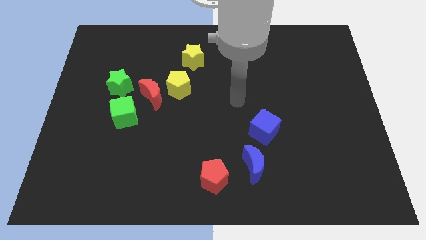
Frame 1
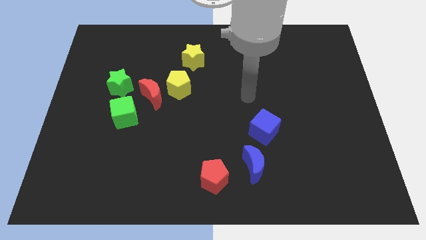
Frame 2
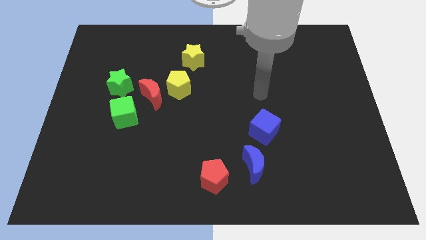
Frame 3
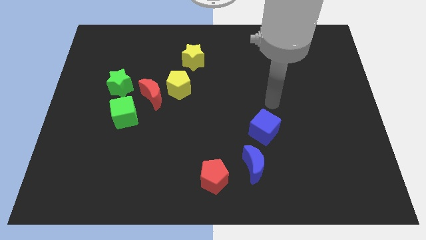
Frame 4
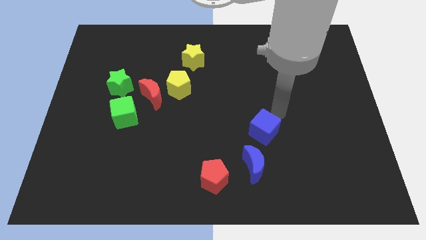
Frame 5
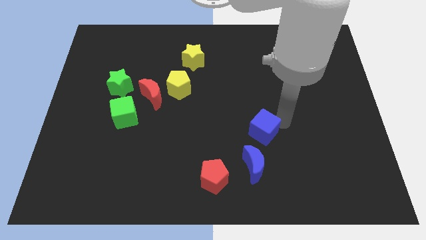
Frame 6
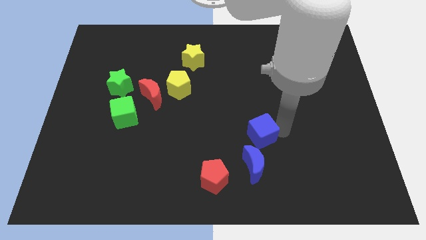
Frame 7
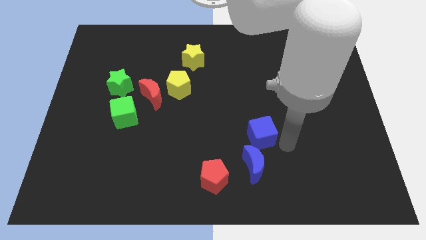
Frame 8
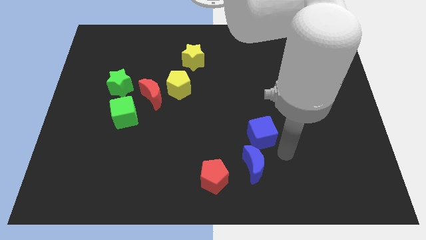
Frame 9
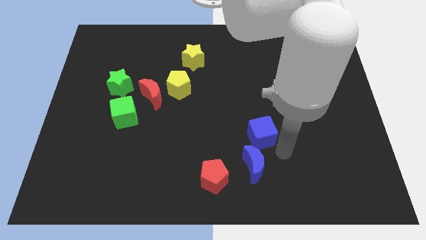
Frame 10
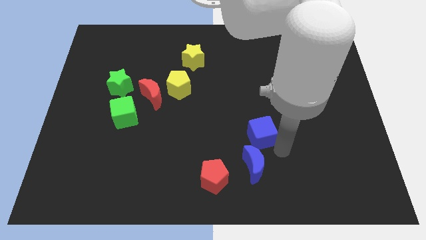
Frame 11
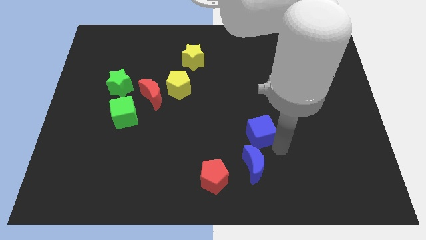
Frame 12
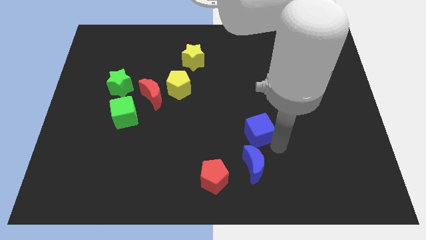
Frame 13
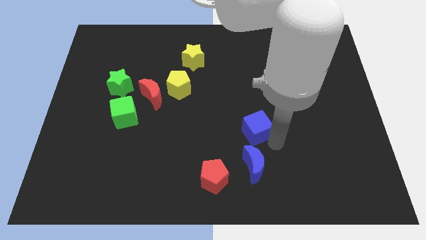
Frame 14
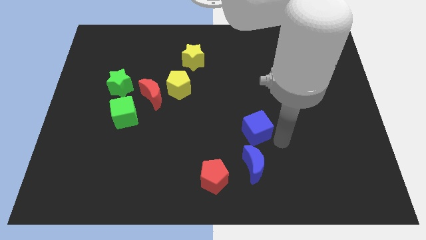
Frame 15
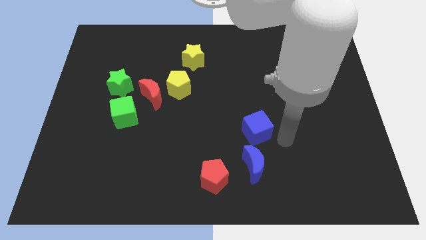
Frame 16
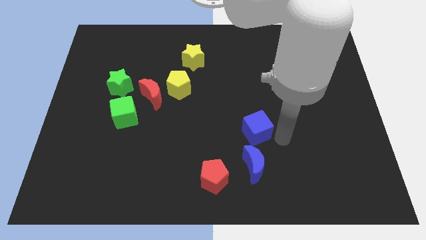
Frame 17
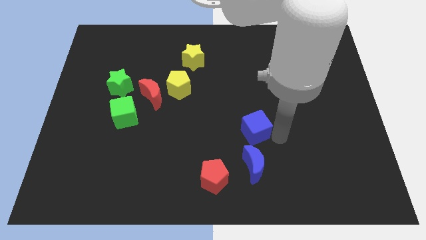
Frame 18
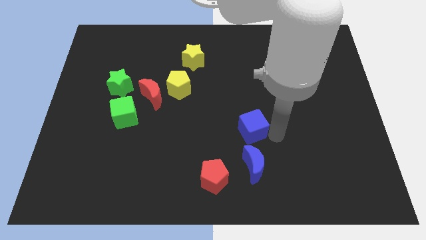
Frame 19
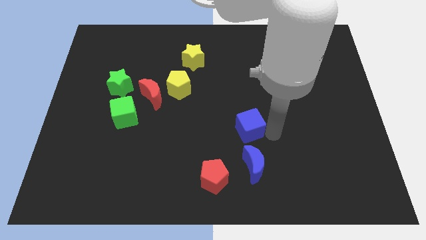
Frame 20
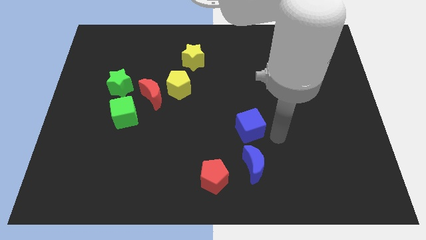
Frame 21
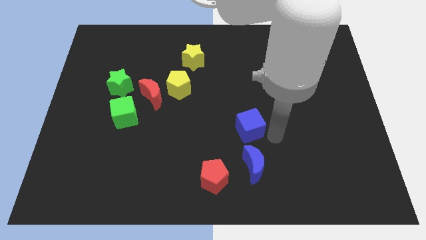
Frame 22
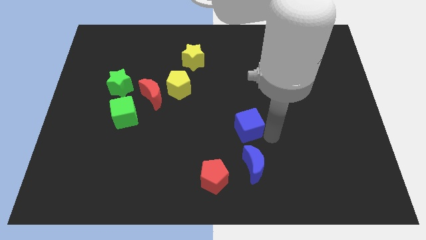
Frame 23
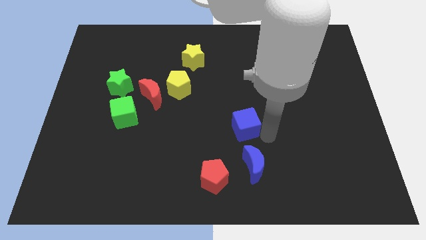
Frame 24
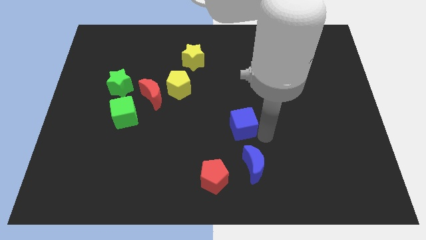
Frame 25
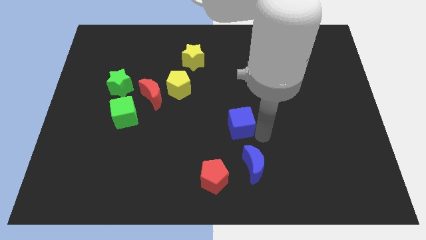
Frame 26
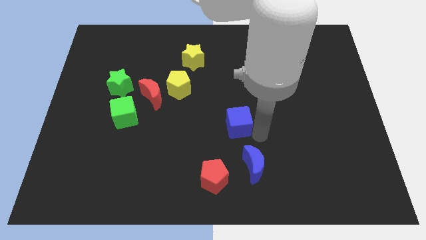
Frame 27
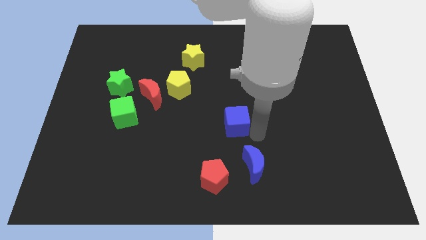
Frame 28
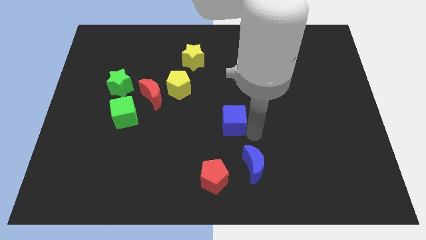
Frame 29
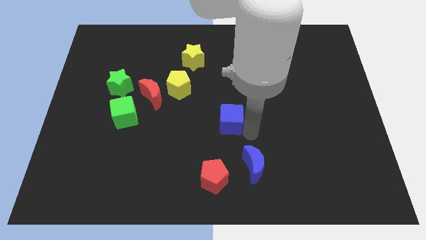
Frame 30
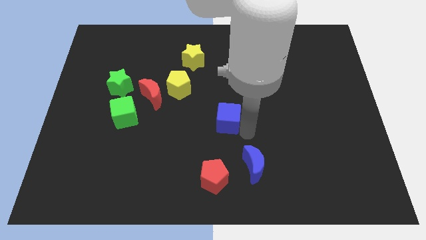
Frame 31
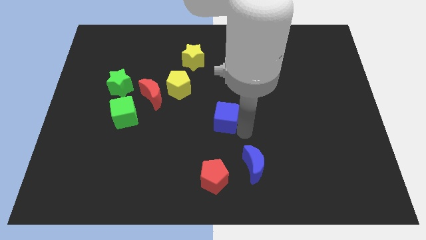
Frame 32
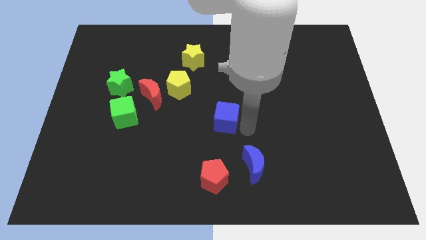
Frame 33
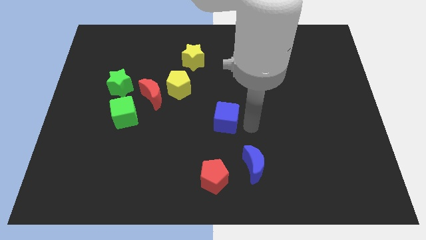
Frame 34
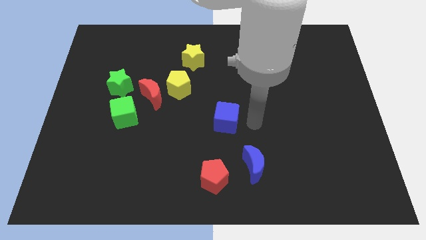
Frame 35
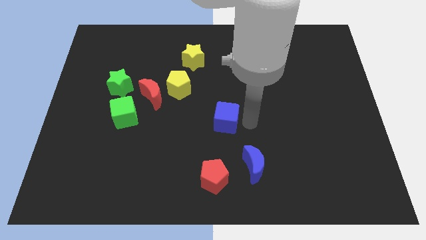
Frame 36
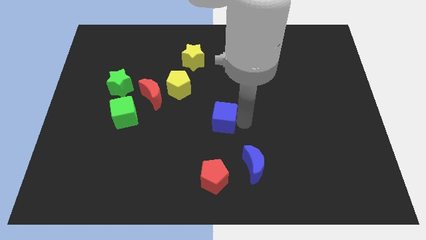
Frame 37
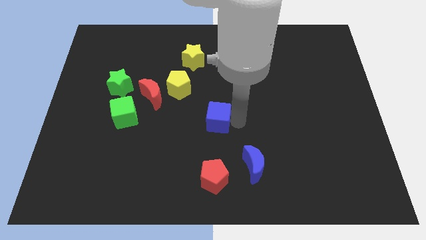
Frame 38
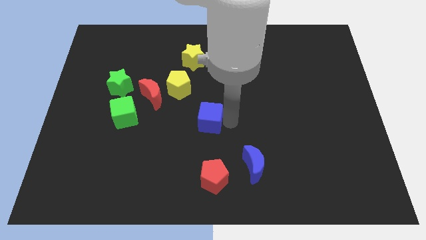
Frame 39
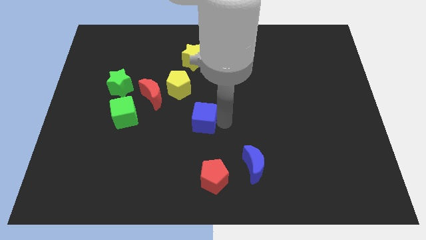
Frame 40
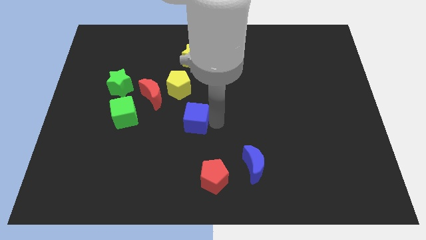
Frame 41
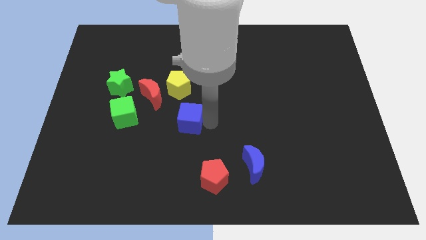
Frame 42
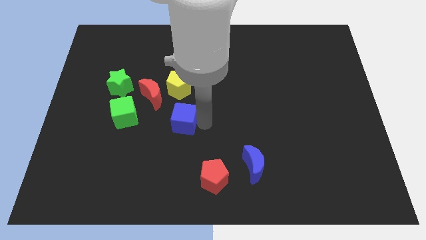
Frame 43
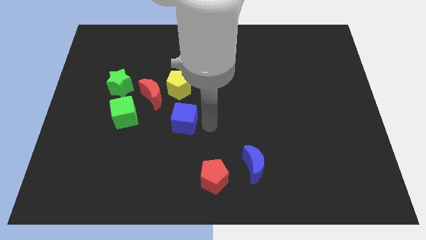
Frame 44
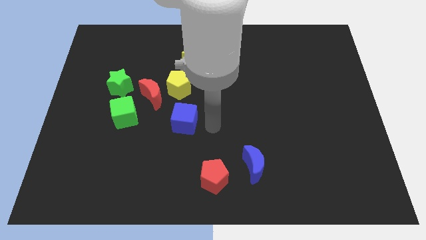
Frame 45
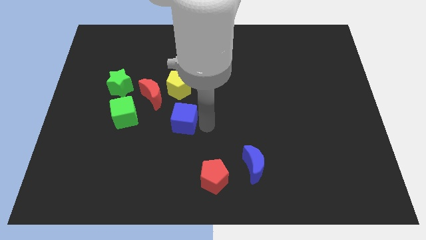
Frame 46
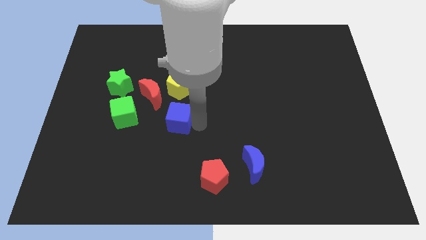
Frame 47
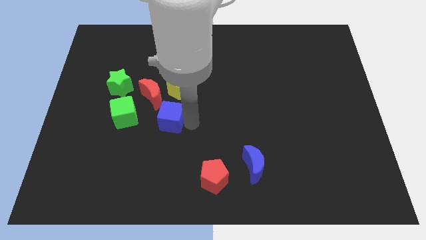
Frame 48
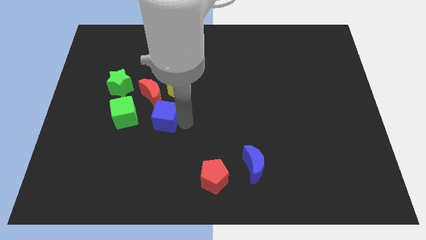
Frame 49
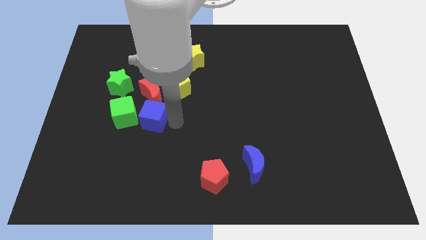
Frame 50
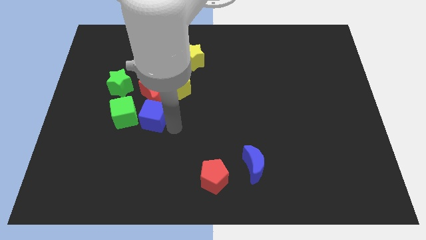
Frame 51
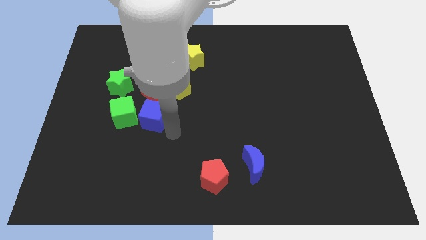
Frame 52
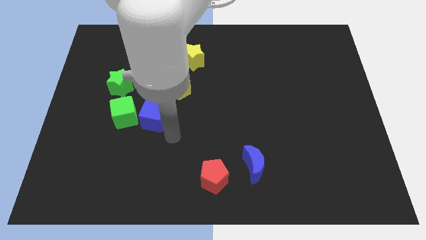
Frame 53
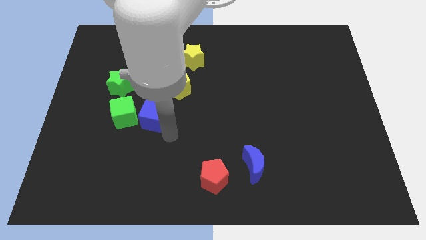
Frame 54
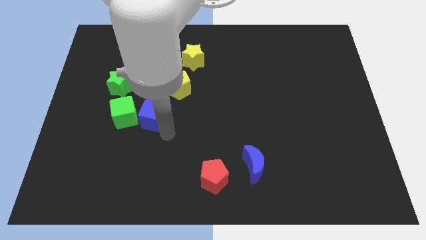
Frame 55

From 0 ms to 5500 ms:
move the blue cube to the bottom right side of the green star
